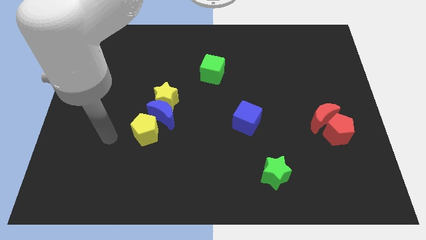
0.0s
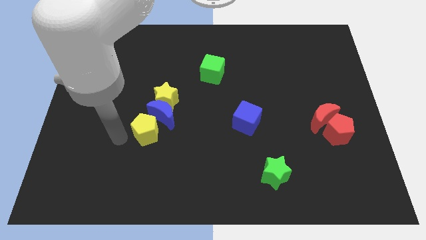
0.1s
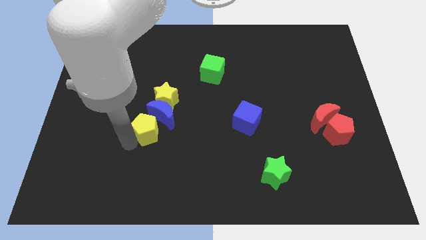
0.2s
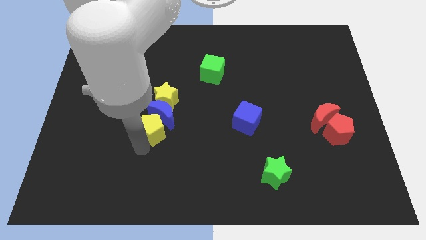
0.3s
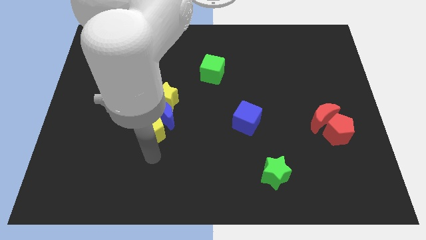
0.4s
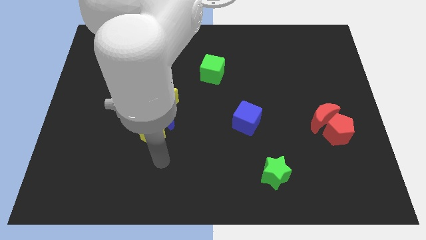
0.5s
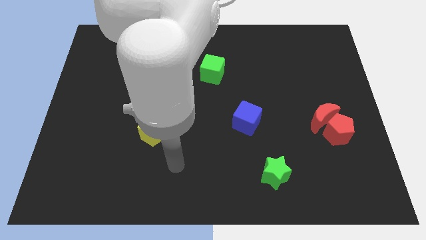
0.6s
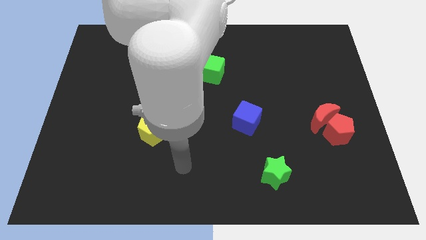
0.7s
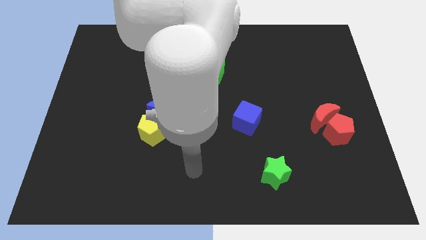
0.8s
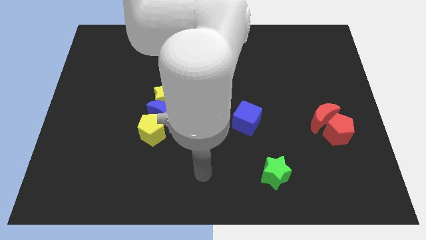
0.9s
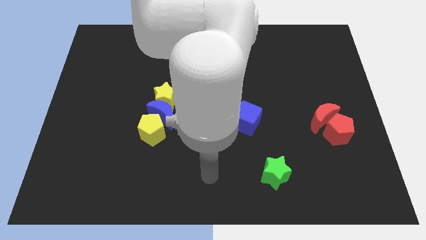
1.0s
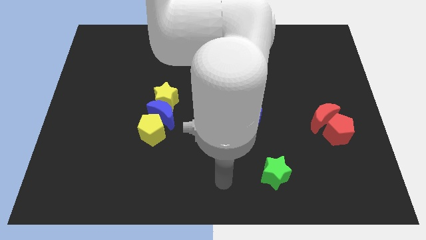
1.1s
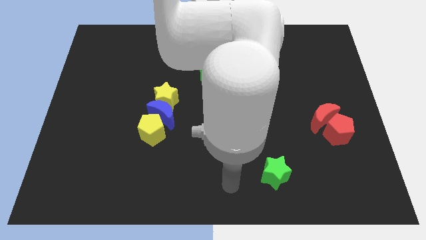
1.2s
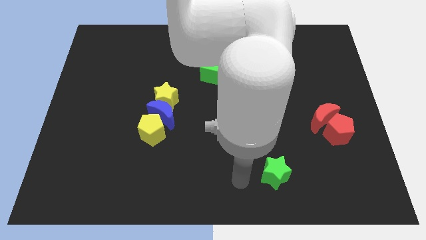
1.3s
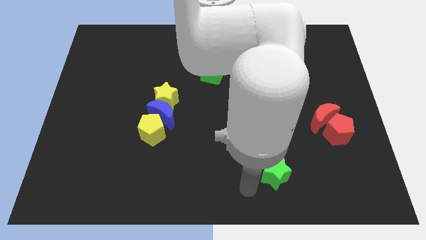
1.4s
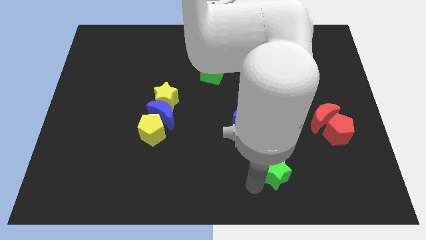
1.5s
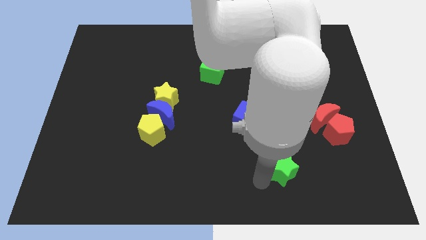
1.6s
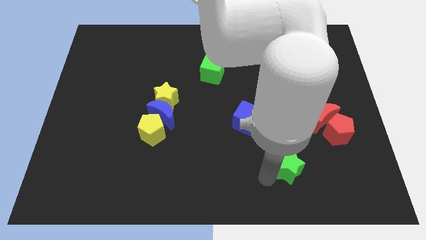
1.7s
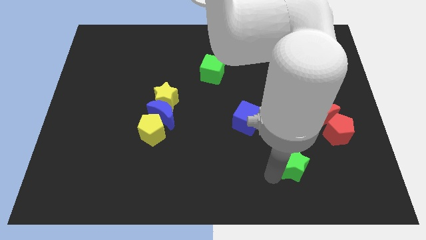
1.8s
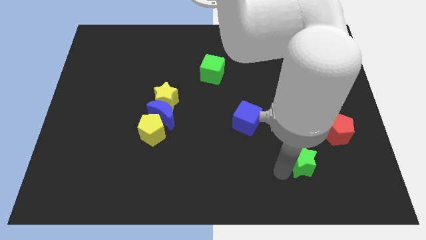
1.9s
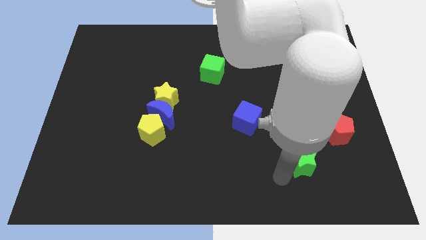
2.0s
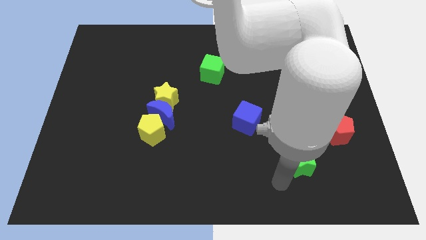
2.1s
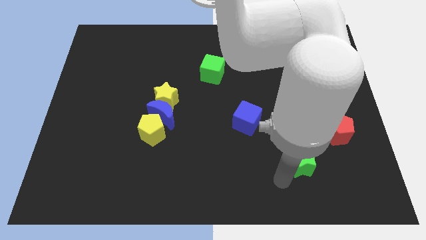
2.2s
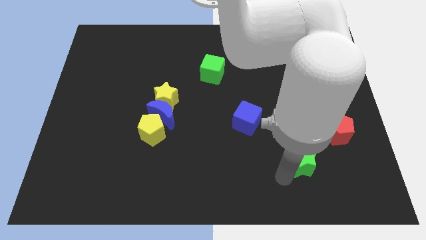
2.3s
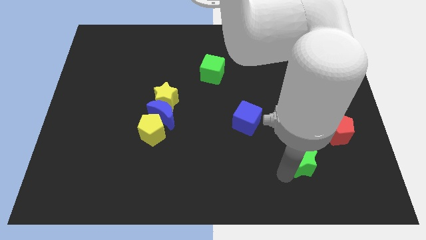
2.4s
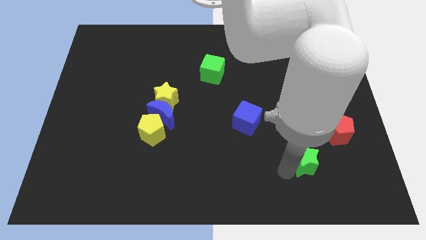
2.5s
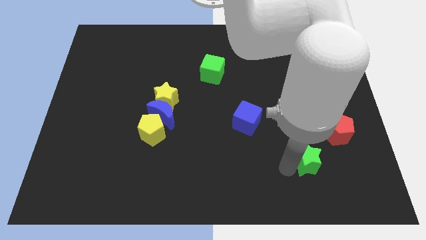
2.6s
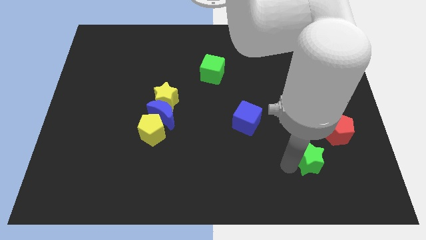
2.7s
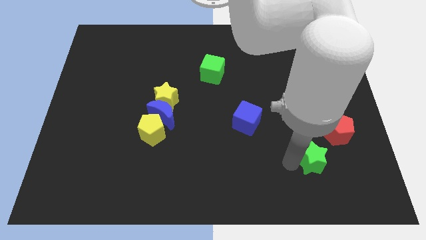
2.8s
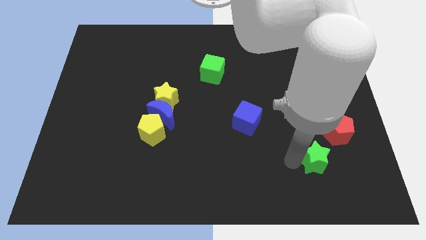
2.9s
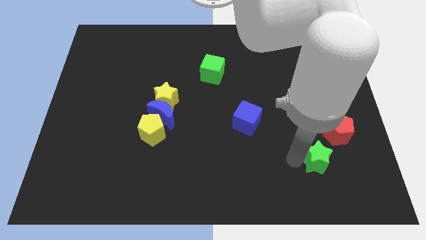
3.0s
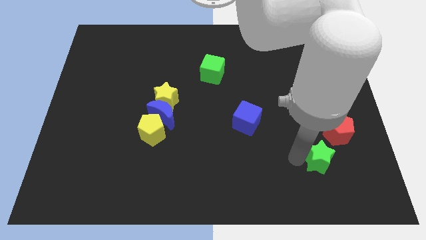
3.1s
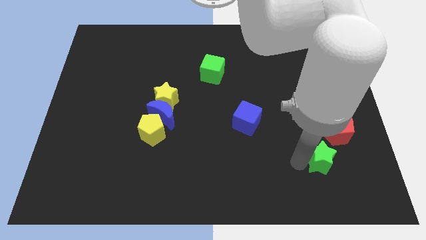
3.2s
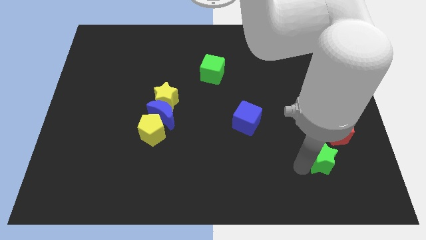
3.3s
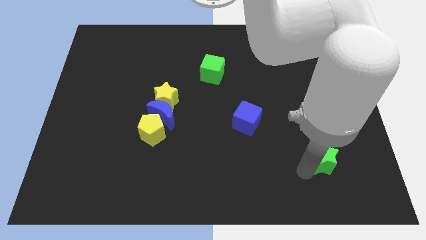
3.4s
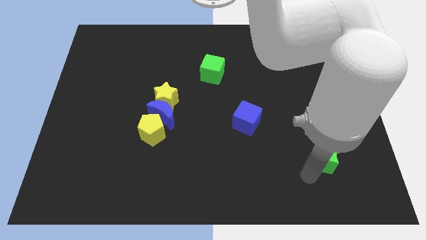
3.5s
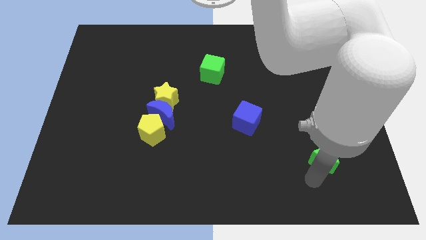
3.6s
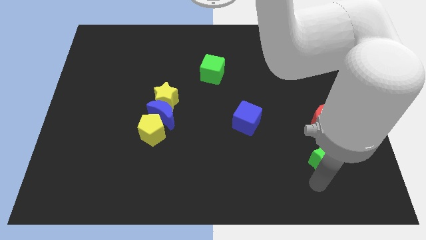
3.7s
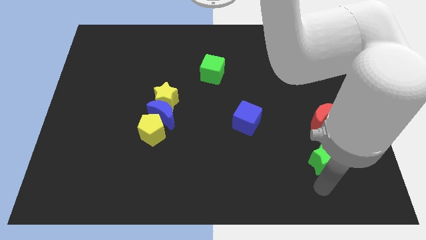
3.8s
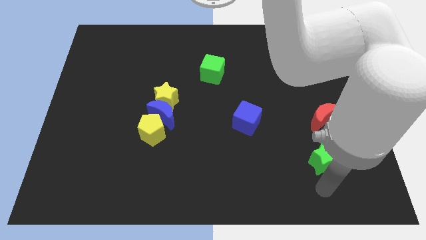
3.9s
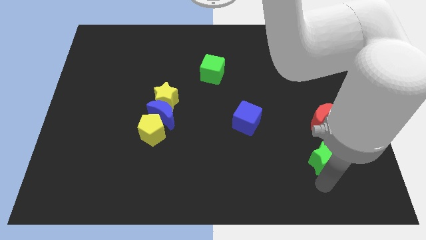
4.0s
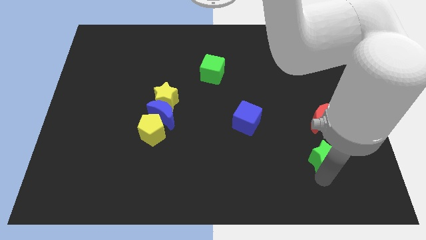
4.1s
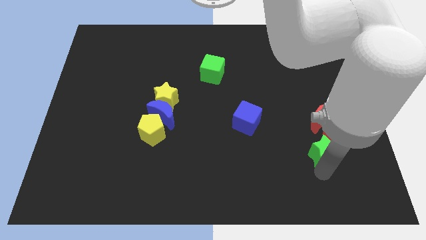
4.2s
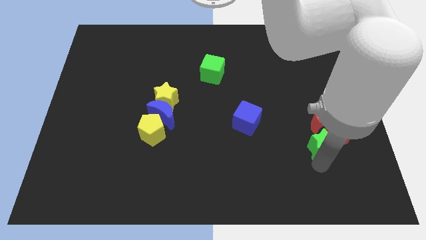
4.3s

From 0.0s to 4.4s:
move the green star to the red pentagon

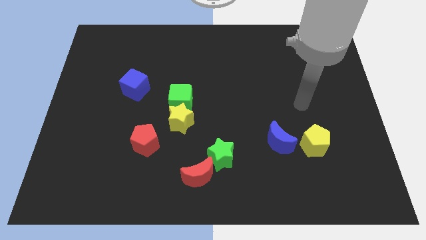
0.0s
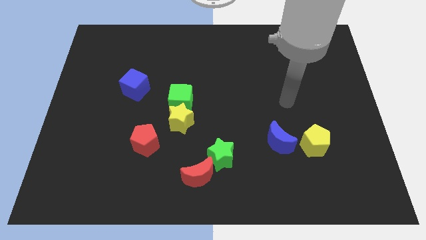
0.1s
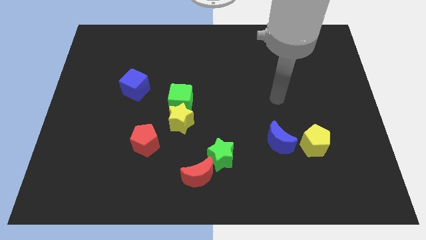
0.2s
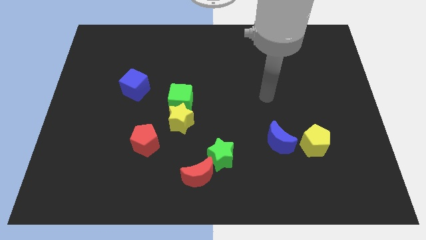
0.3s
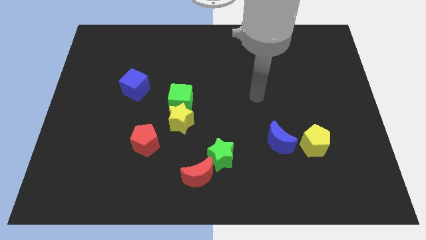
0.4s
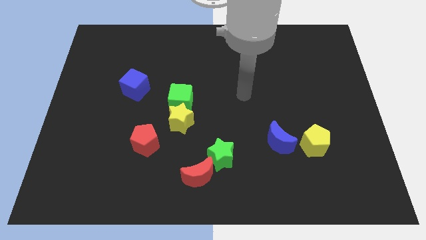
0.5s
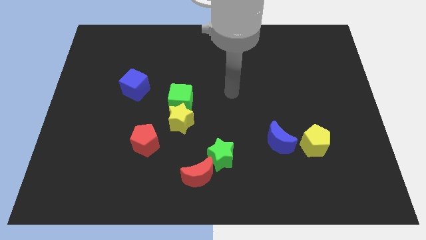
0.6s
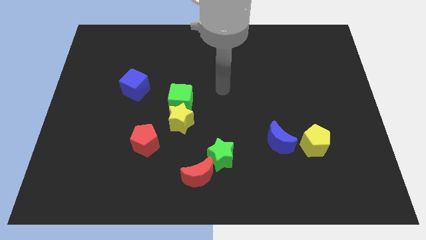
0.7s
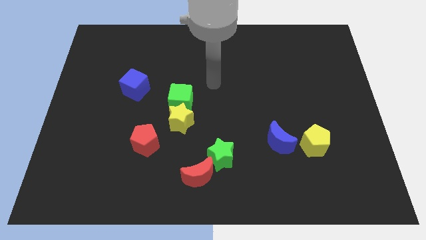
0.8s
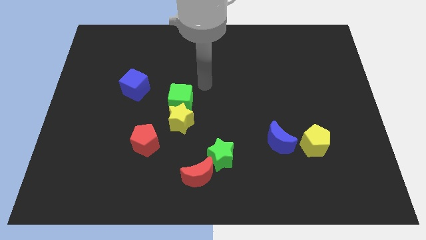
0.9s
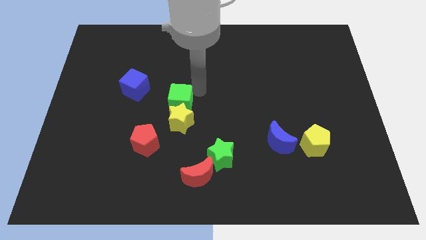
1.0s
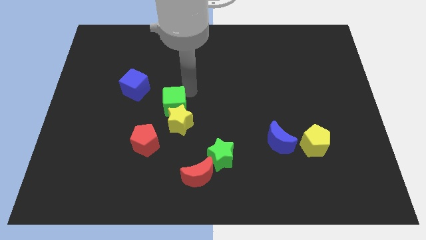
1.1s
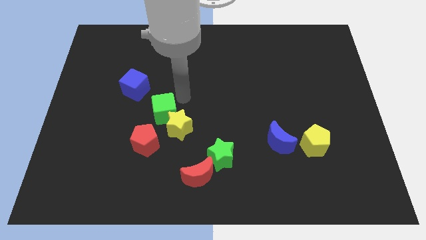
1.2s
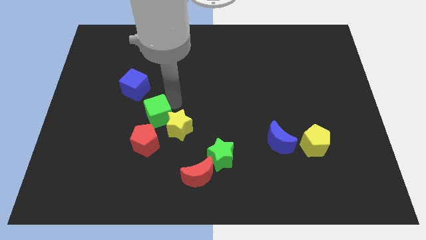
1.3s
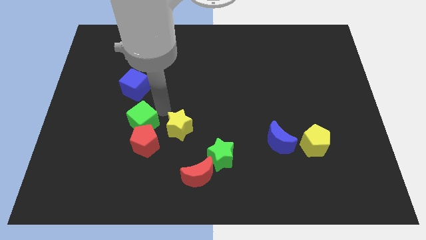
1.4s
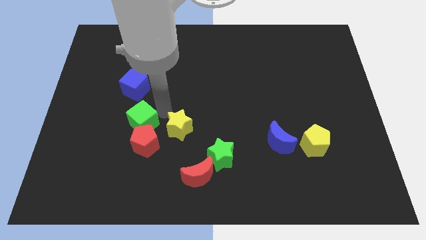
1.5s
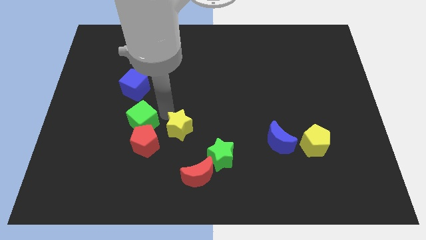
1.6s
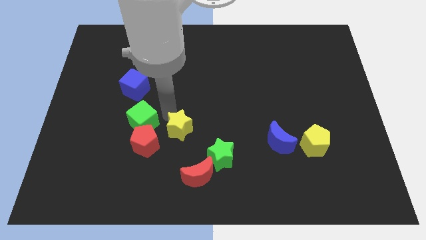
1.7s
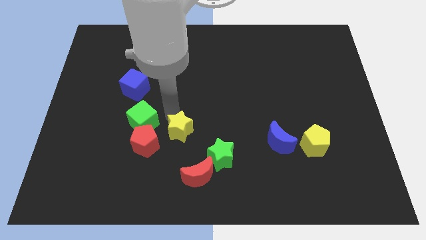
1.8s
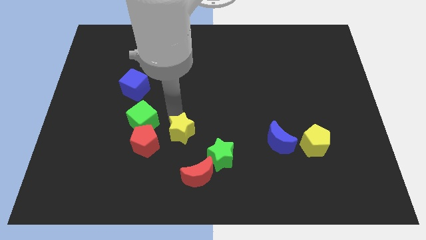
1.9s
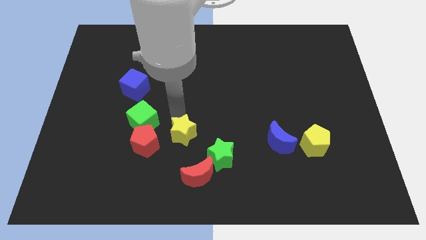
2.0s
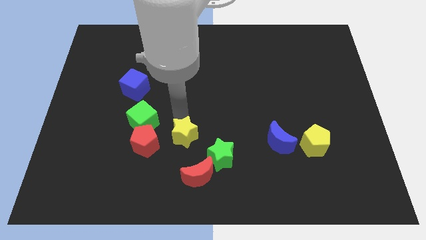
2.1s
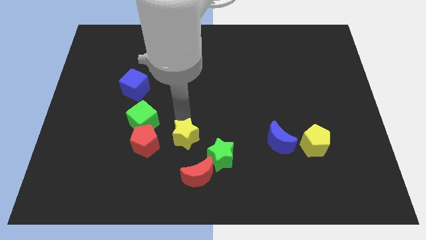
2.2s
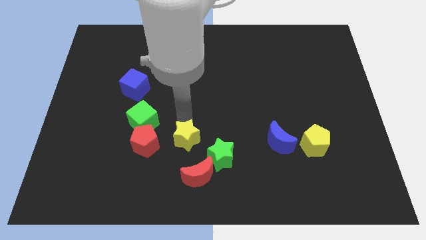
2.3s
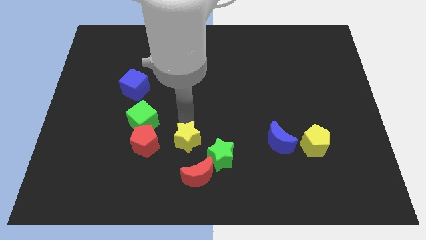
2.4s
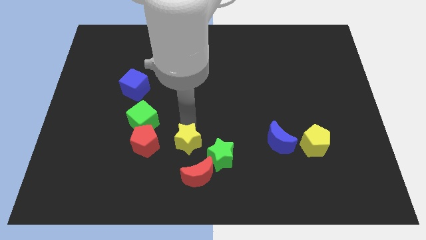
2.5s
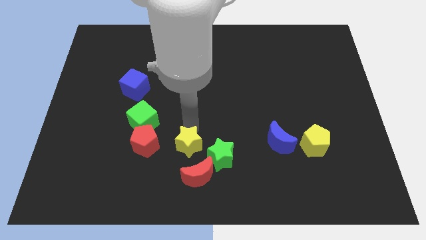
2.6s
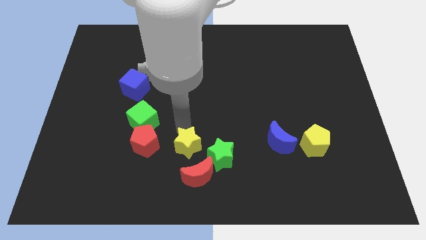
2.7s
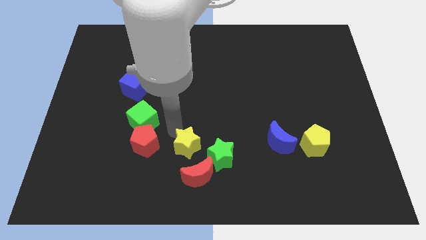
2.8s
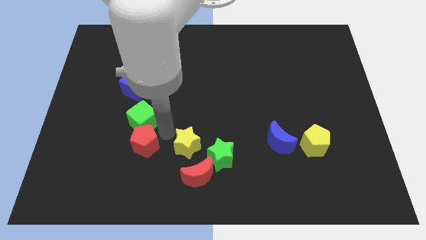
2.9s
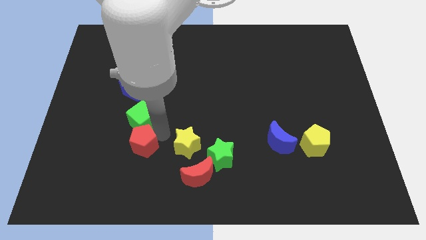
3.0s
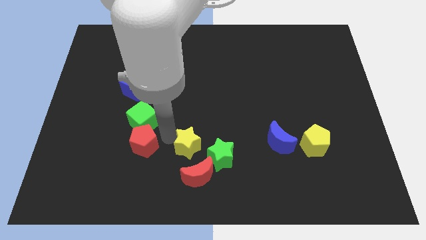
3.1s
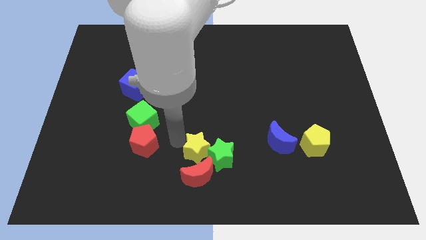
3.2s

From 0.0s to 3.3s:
move the yellow star towards the green star
